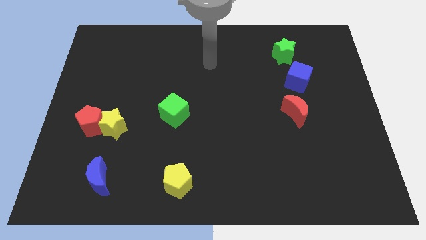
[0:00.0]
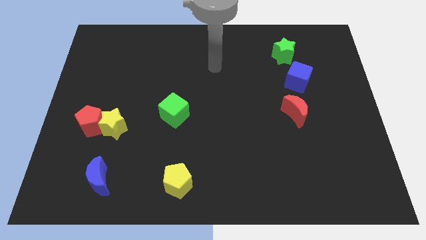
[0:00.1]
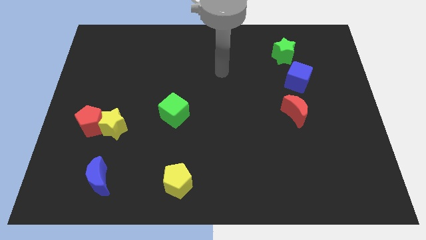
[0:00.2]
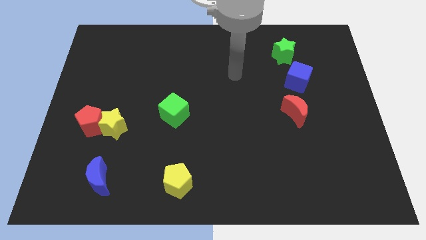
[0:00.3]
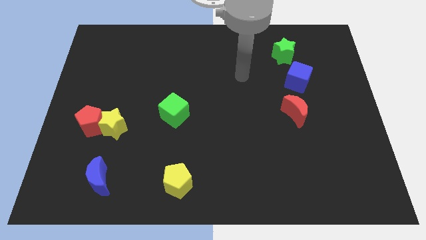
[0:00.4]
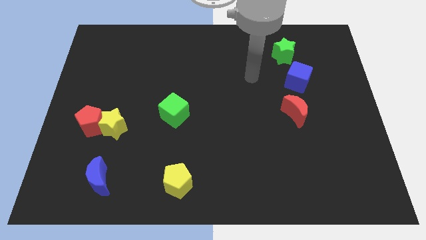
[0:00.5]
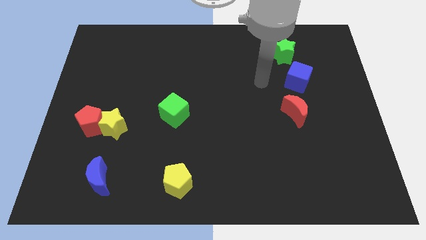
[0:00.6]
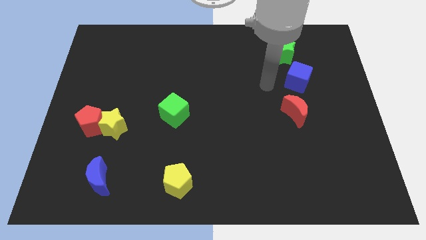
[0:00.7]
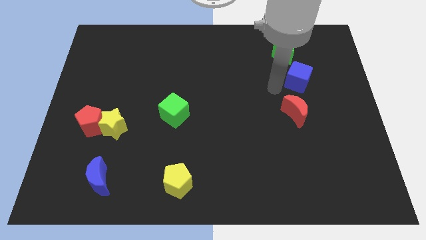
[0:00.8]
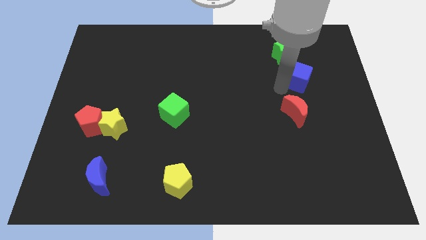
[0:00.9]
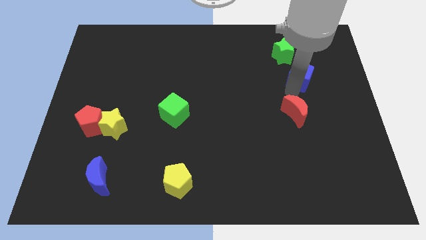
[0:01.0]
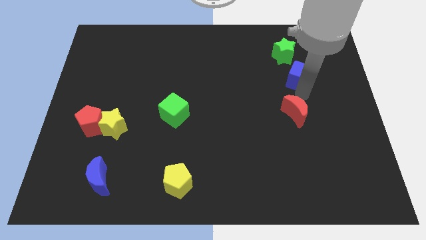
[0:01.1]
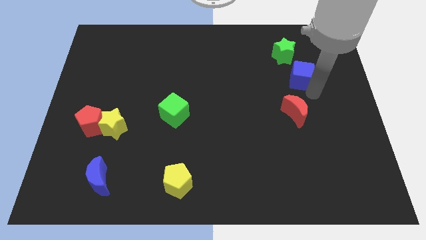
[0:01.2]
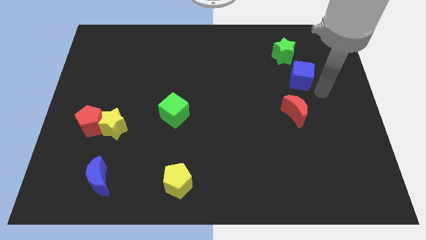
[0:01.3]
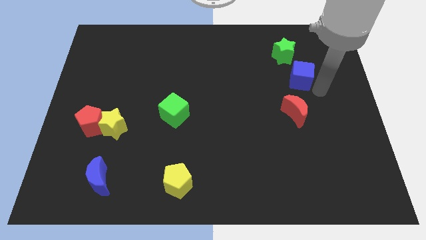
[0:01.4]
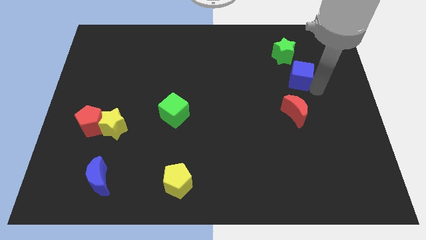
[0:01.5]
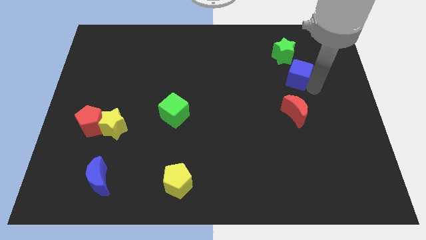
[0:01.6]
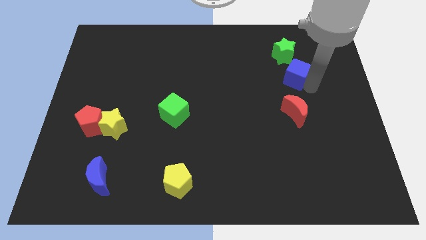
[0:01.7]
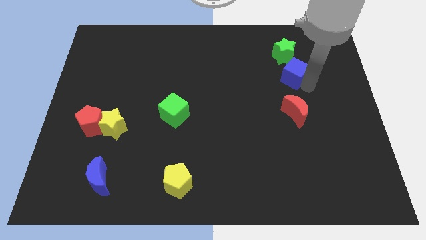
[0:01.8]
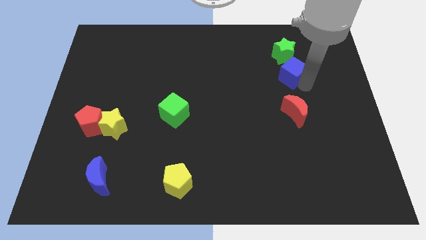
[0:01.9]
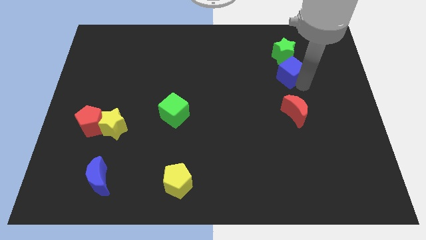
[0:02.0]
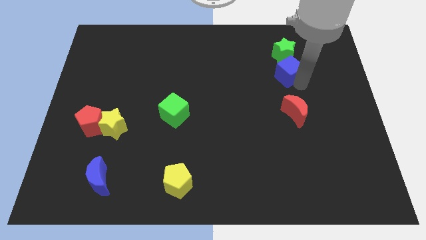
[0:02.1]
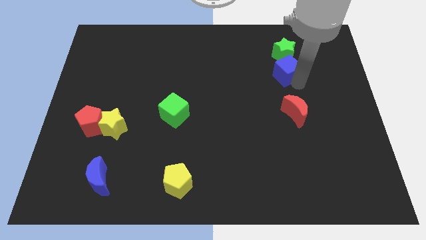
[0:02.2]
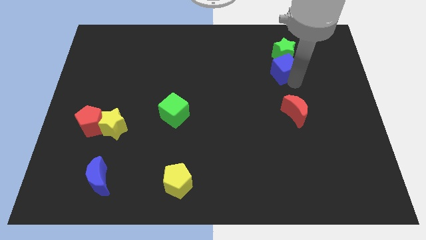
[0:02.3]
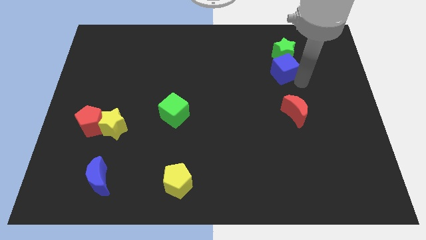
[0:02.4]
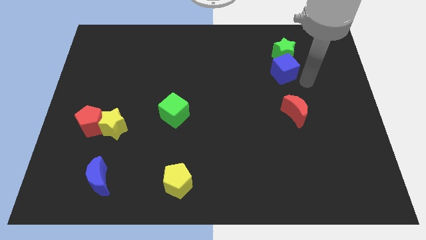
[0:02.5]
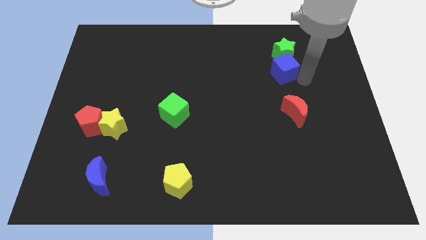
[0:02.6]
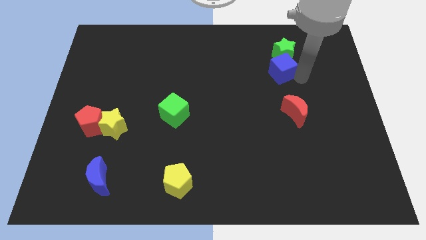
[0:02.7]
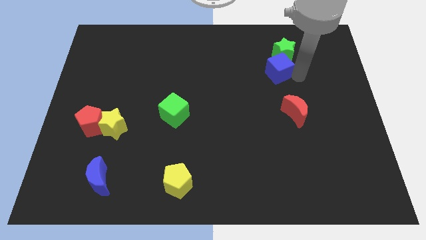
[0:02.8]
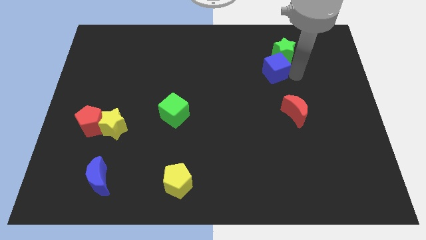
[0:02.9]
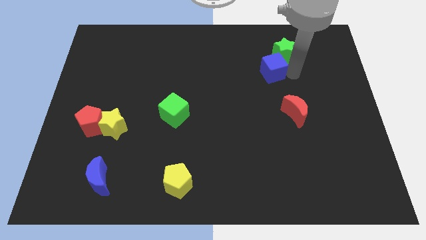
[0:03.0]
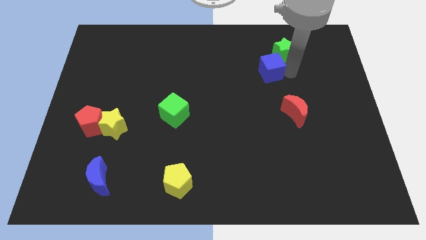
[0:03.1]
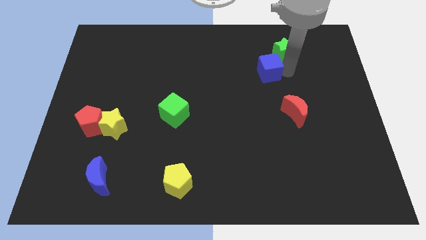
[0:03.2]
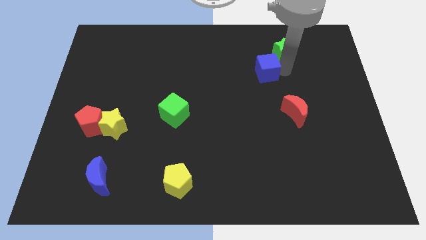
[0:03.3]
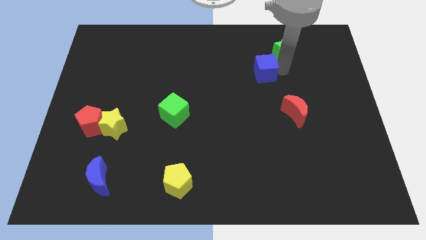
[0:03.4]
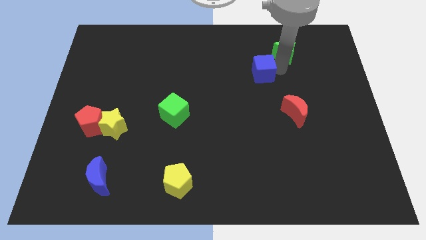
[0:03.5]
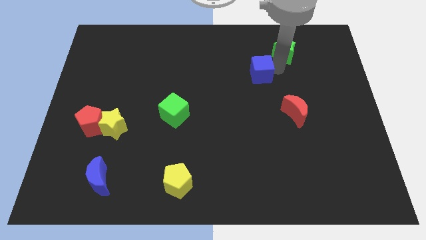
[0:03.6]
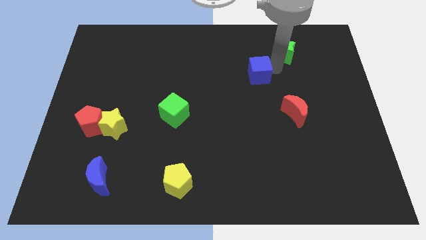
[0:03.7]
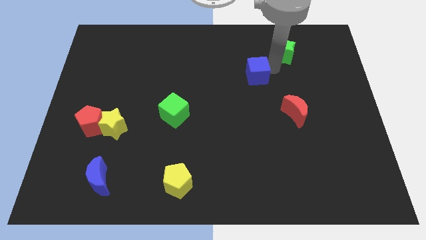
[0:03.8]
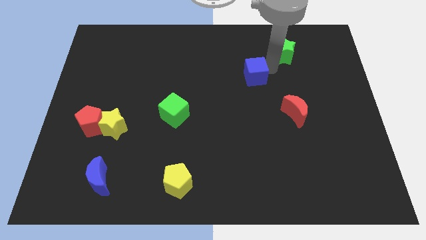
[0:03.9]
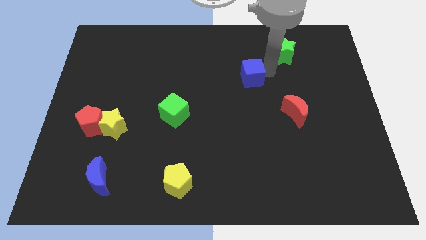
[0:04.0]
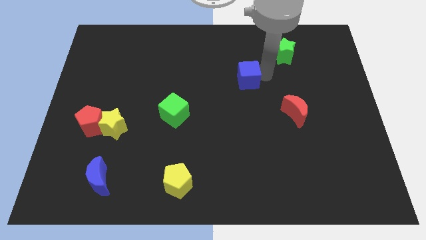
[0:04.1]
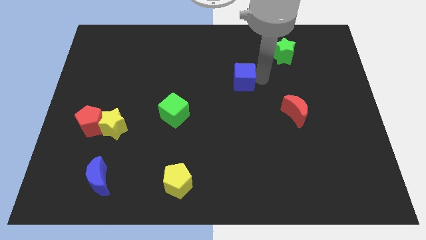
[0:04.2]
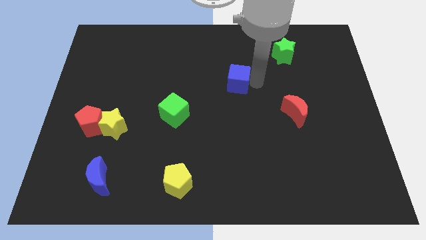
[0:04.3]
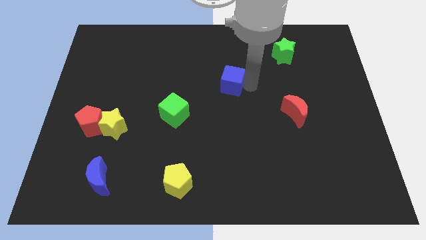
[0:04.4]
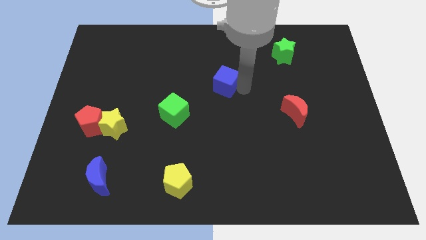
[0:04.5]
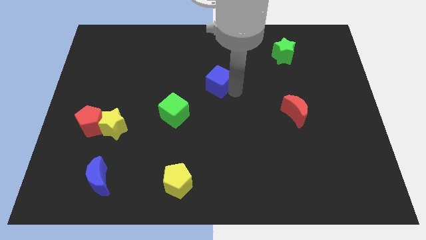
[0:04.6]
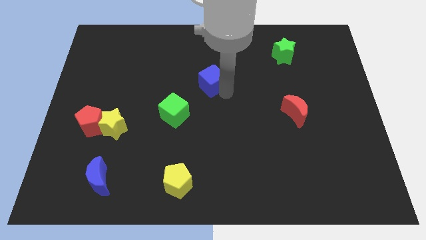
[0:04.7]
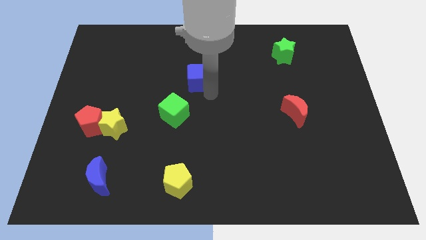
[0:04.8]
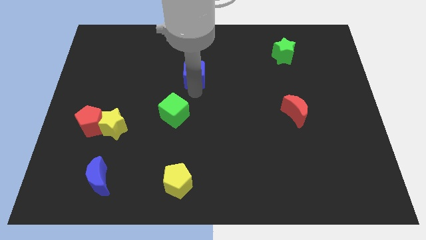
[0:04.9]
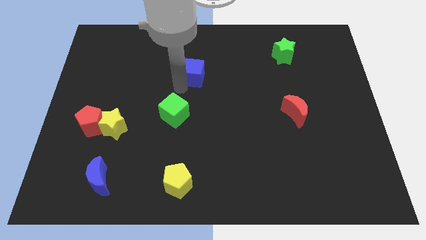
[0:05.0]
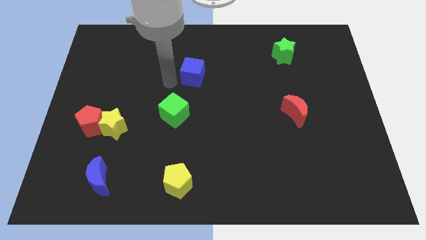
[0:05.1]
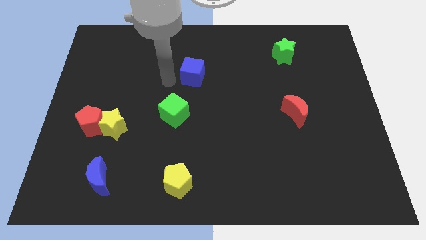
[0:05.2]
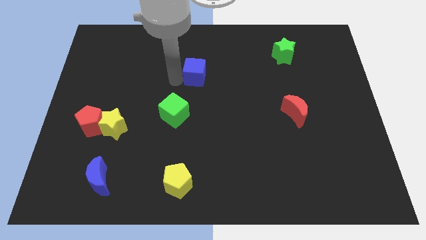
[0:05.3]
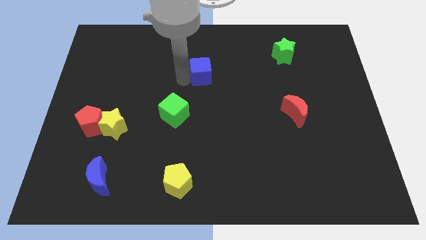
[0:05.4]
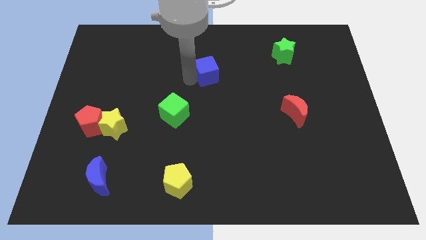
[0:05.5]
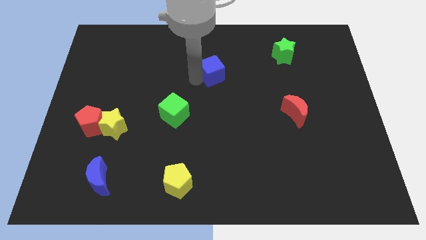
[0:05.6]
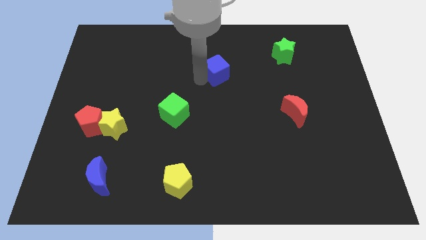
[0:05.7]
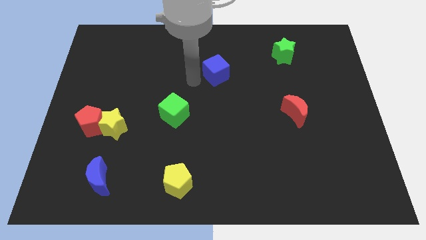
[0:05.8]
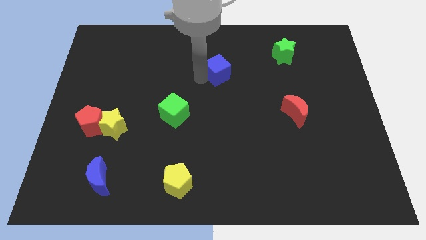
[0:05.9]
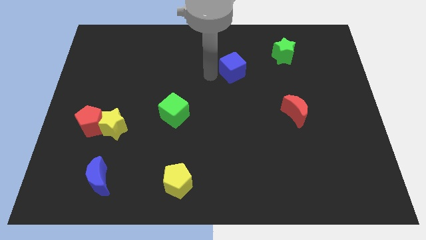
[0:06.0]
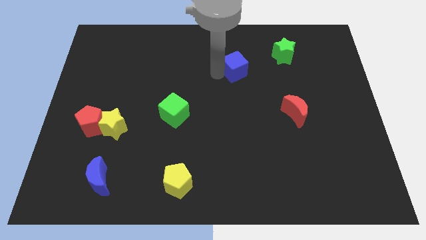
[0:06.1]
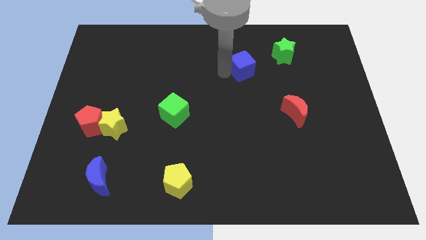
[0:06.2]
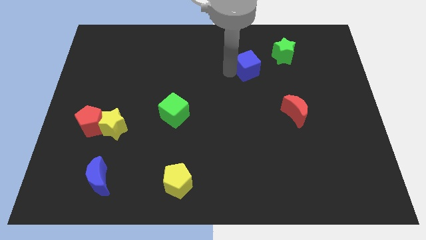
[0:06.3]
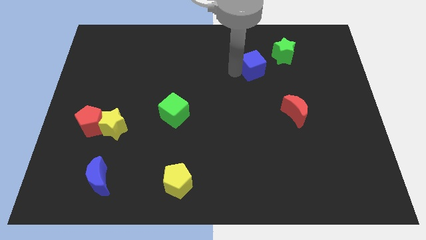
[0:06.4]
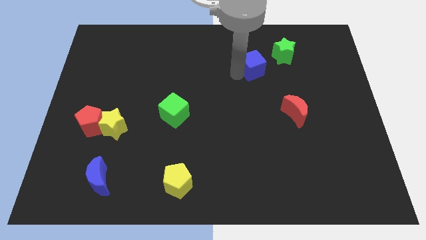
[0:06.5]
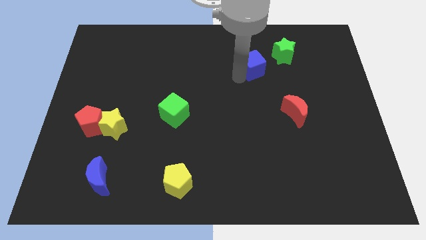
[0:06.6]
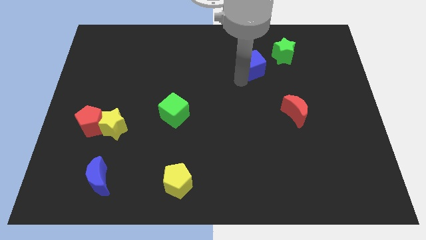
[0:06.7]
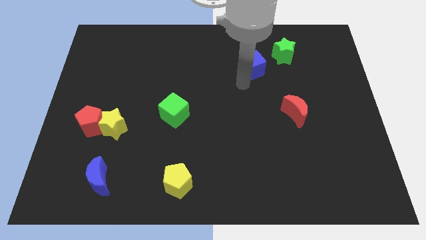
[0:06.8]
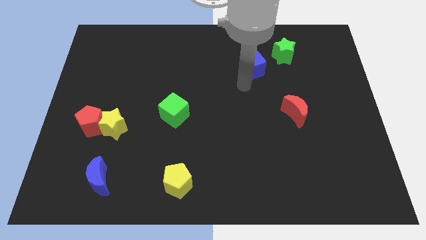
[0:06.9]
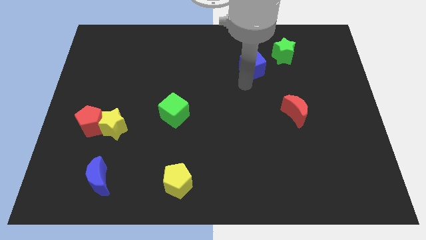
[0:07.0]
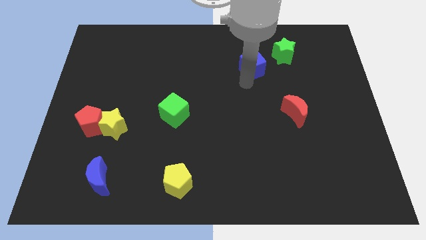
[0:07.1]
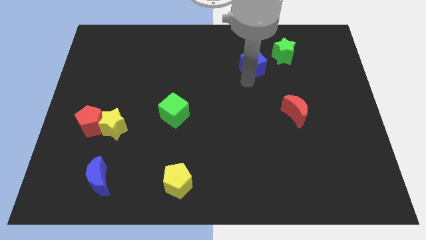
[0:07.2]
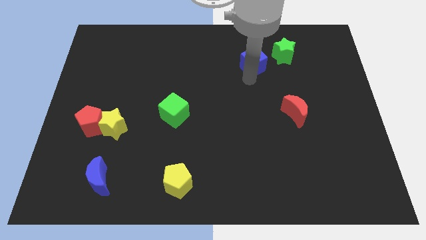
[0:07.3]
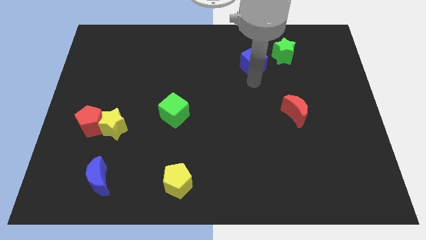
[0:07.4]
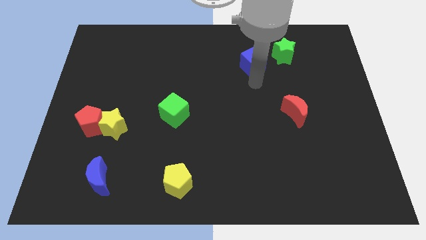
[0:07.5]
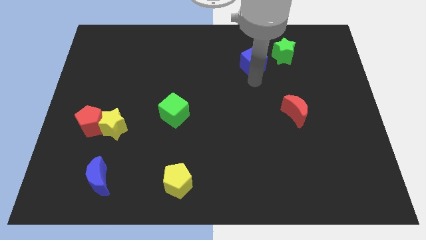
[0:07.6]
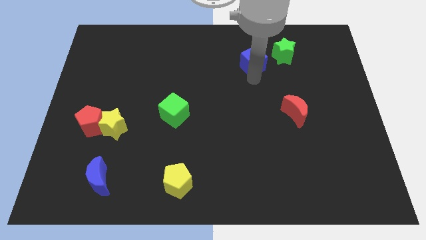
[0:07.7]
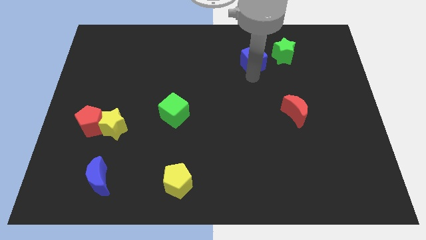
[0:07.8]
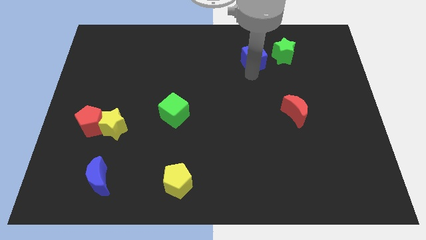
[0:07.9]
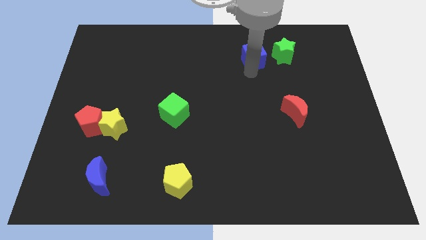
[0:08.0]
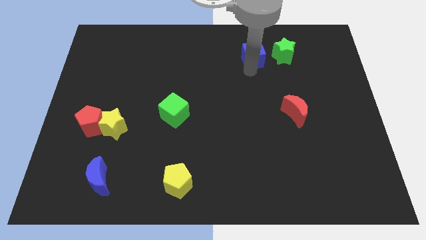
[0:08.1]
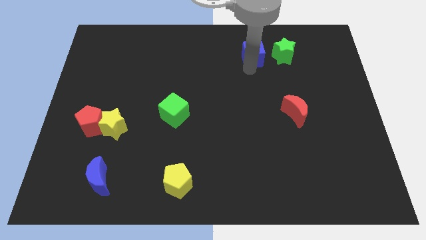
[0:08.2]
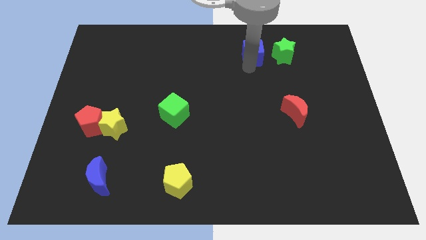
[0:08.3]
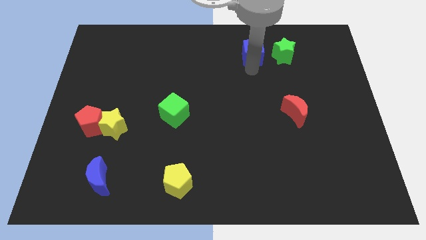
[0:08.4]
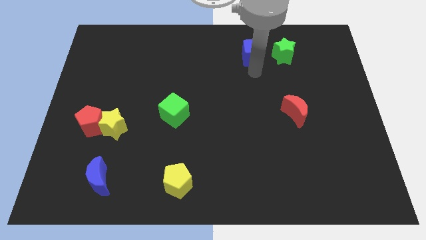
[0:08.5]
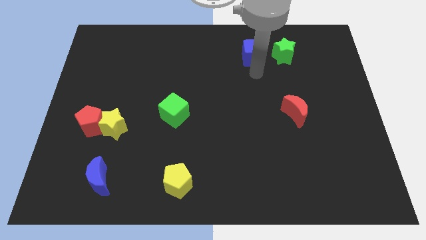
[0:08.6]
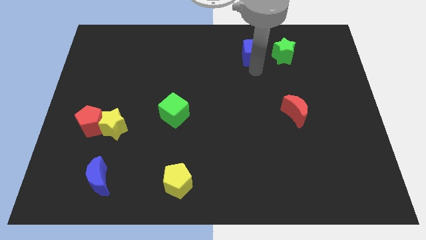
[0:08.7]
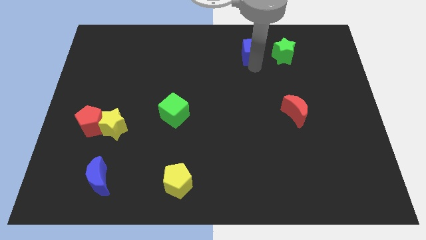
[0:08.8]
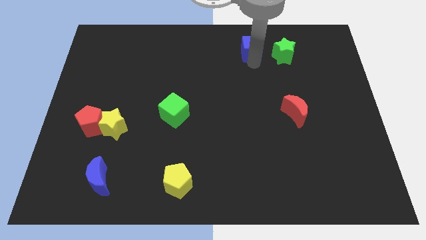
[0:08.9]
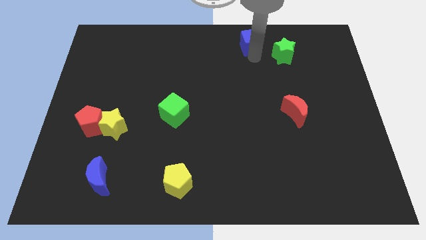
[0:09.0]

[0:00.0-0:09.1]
put the blue cube to the top side
